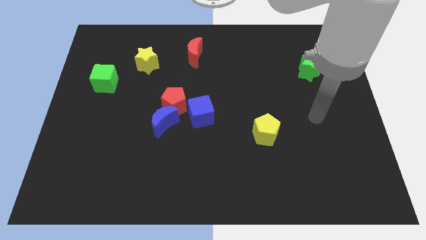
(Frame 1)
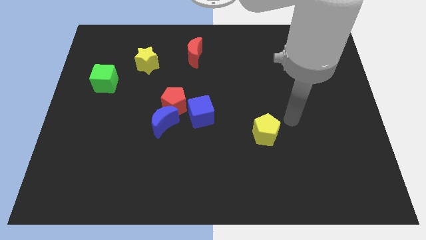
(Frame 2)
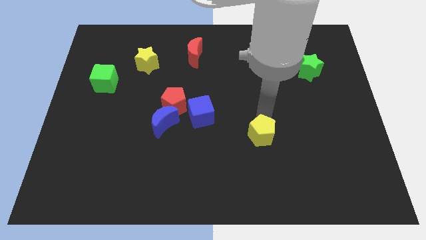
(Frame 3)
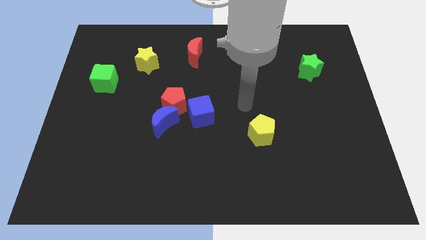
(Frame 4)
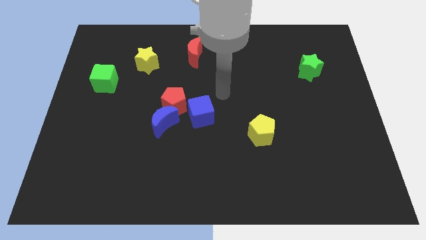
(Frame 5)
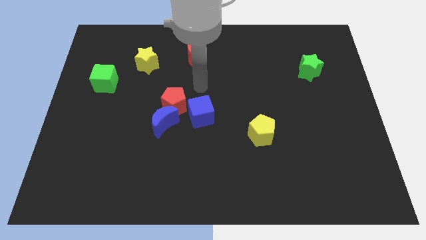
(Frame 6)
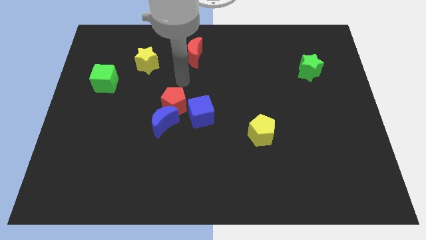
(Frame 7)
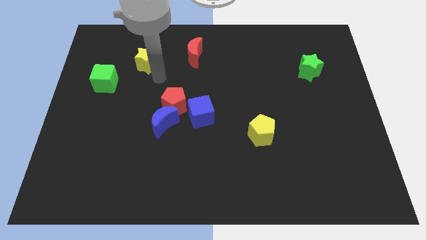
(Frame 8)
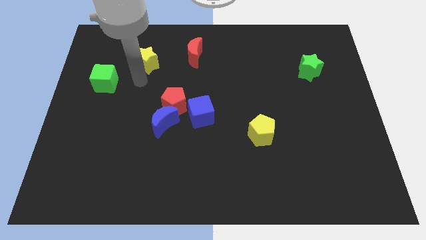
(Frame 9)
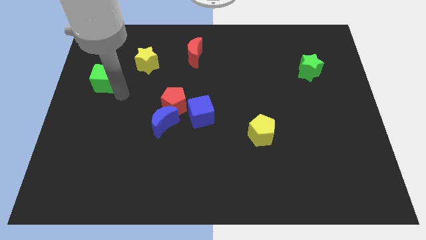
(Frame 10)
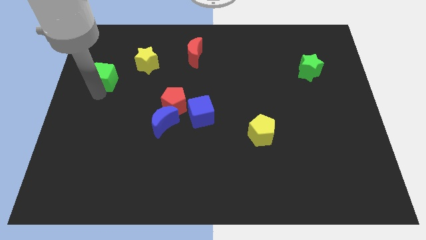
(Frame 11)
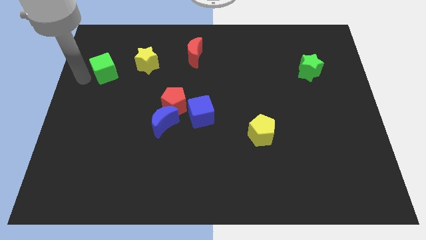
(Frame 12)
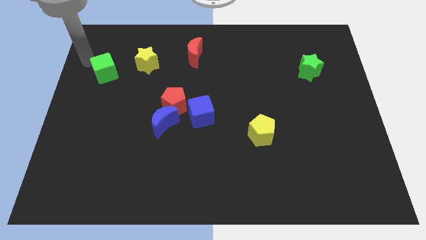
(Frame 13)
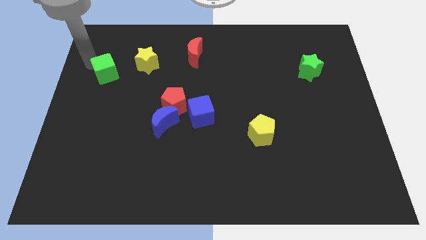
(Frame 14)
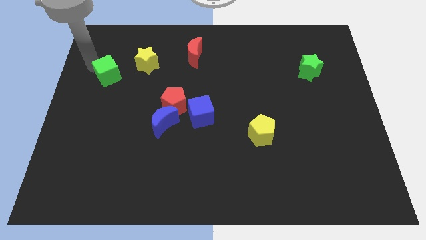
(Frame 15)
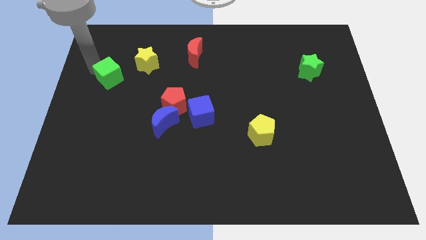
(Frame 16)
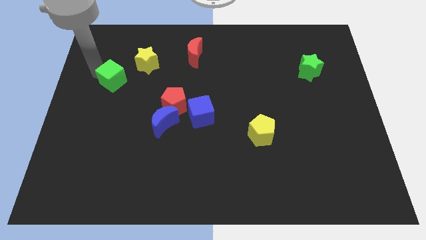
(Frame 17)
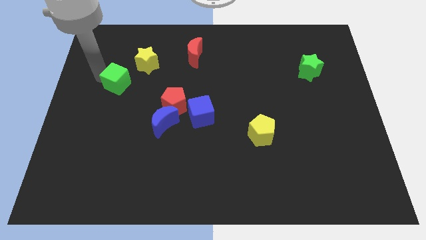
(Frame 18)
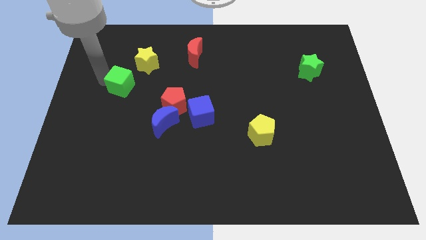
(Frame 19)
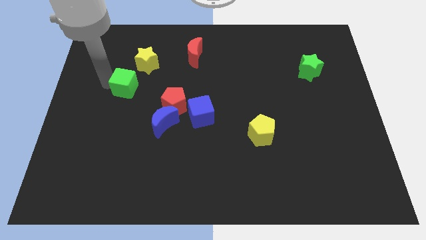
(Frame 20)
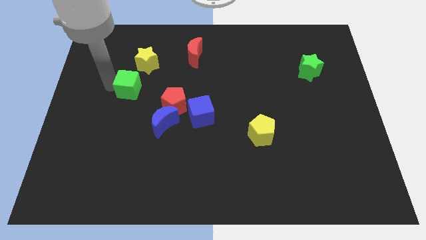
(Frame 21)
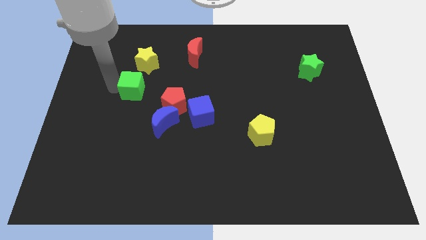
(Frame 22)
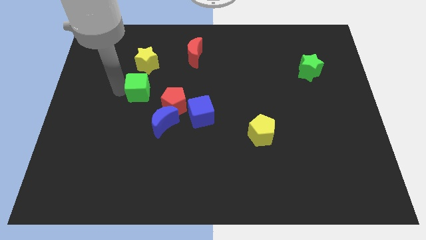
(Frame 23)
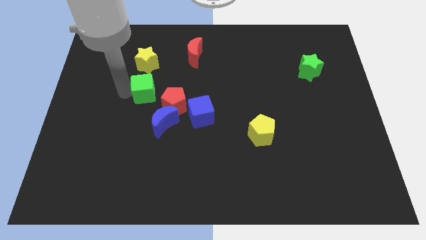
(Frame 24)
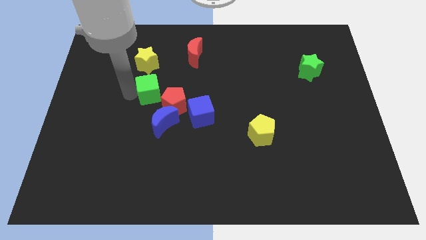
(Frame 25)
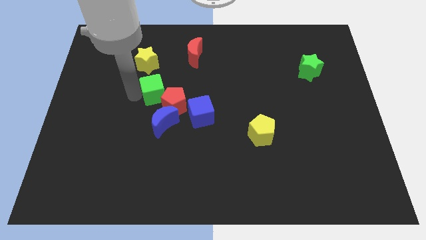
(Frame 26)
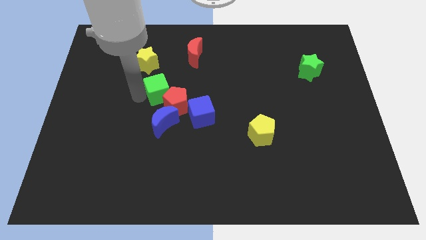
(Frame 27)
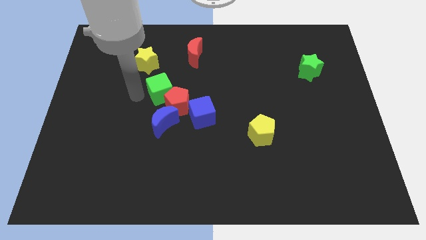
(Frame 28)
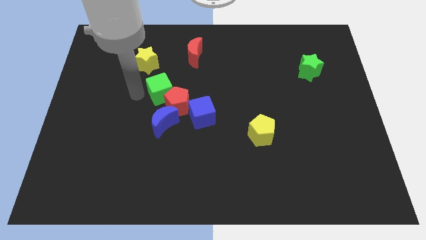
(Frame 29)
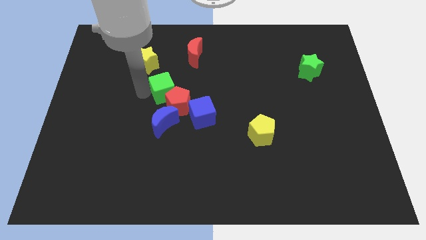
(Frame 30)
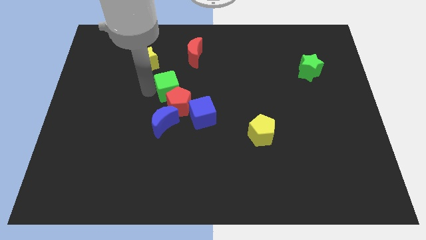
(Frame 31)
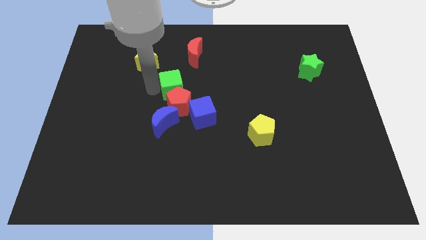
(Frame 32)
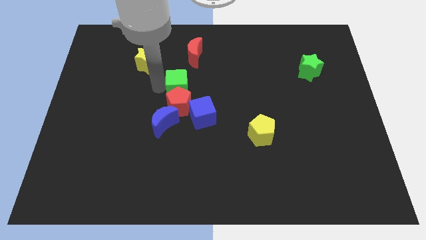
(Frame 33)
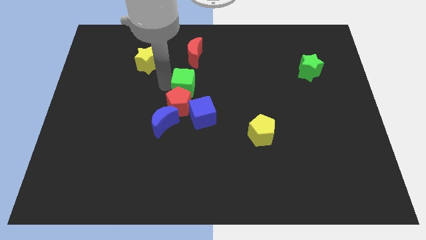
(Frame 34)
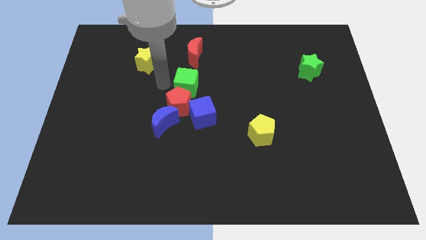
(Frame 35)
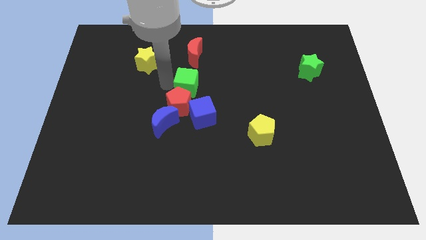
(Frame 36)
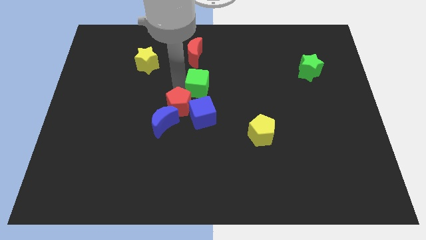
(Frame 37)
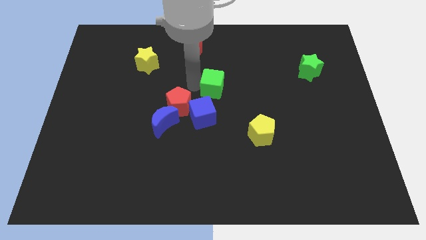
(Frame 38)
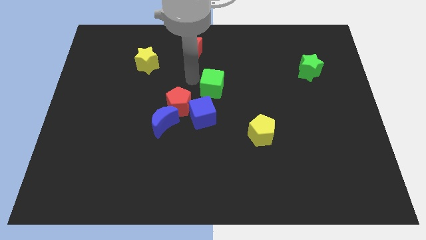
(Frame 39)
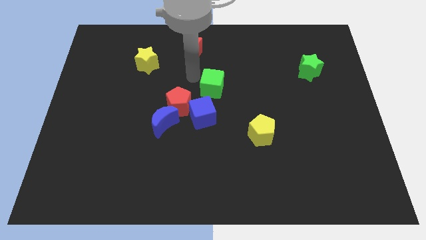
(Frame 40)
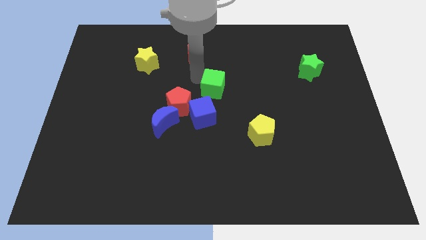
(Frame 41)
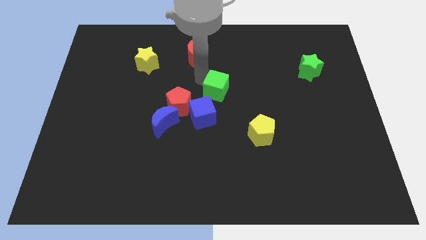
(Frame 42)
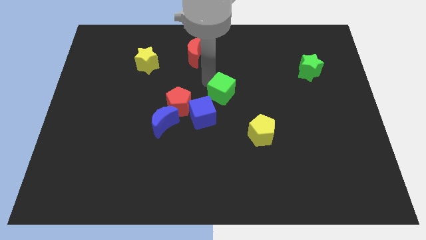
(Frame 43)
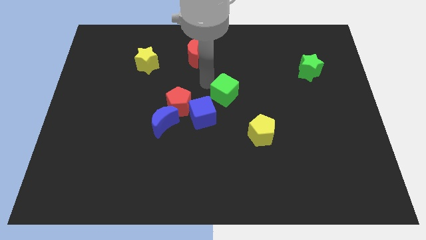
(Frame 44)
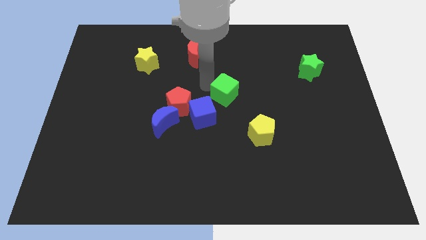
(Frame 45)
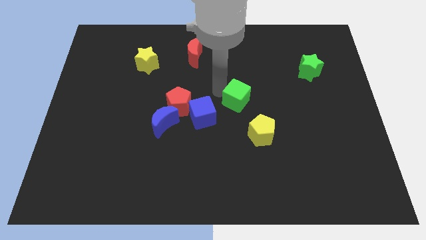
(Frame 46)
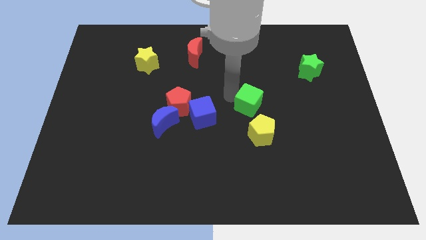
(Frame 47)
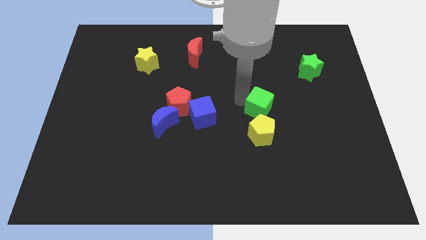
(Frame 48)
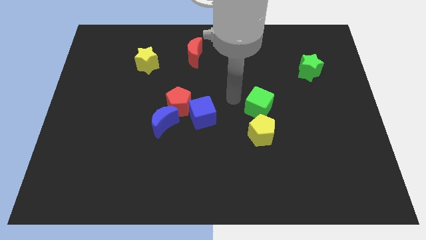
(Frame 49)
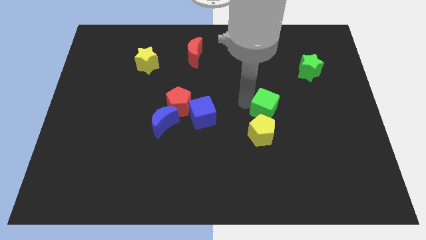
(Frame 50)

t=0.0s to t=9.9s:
put the green cube to the top right of the yellow pentagon

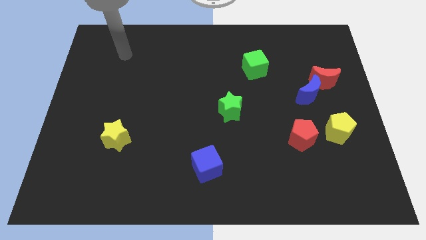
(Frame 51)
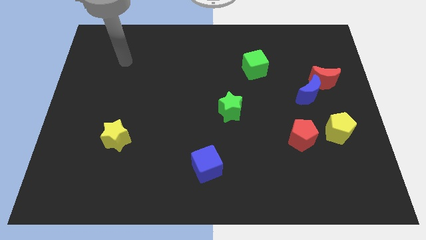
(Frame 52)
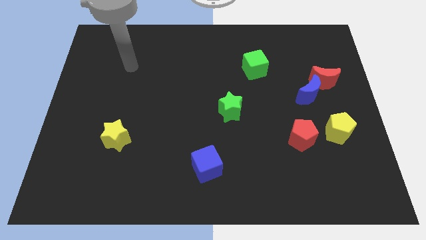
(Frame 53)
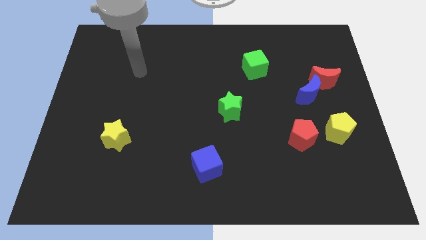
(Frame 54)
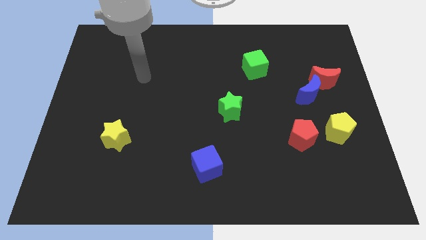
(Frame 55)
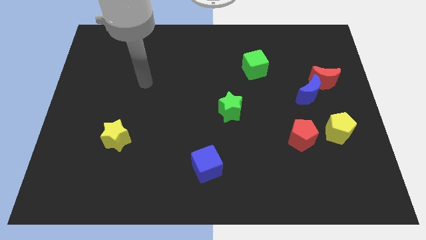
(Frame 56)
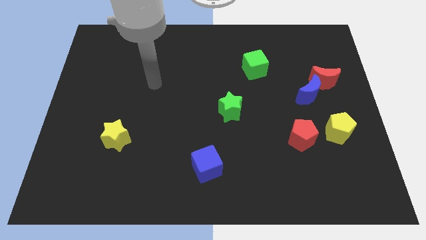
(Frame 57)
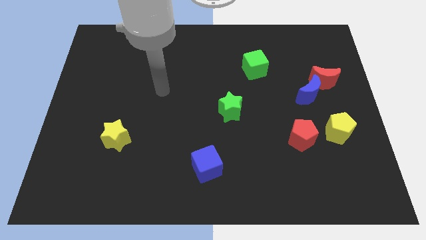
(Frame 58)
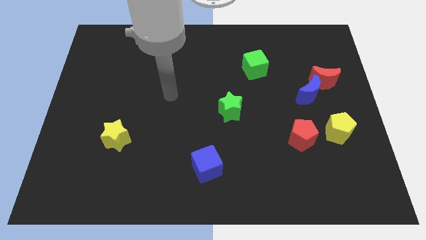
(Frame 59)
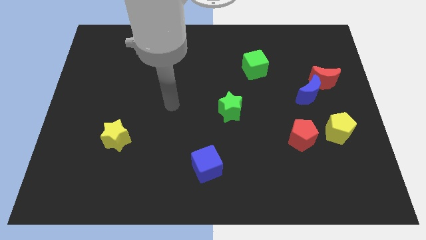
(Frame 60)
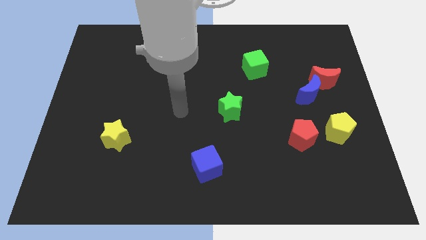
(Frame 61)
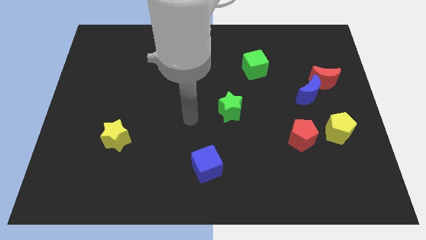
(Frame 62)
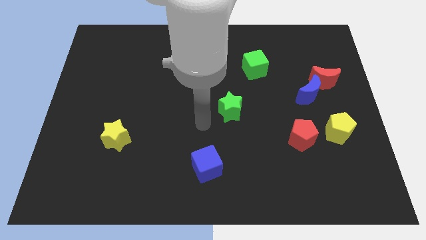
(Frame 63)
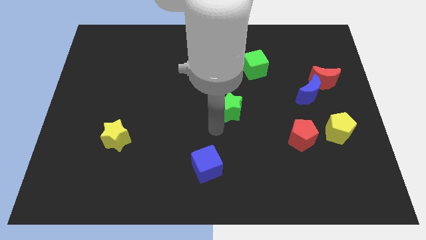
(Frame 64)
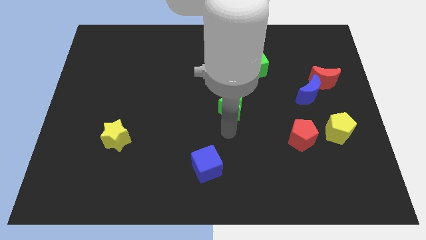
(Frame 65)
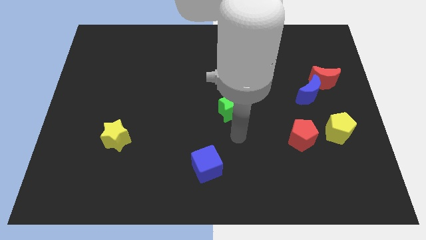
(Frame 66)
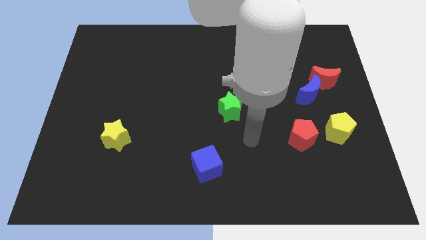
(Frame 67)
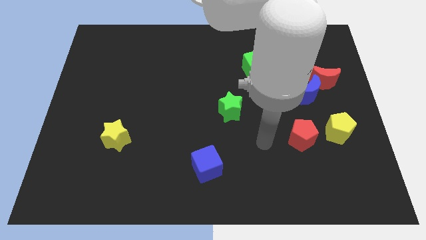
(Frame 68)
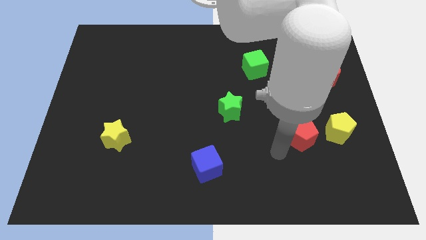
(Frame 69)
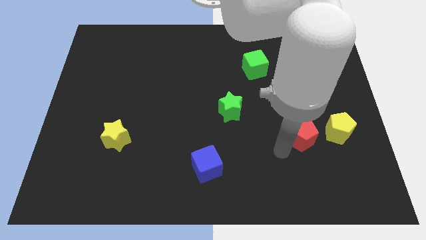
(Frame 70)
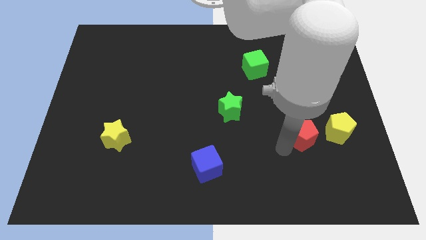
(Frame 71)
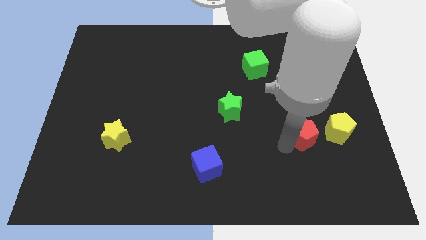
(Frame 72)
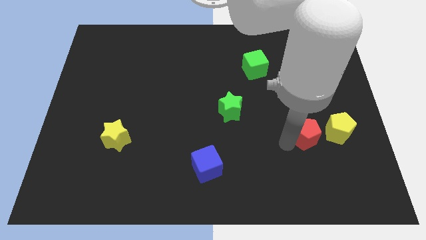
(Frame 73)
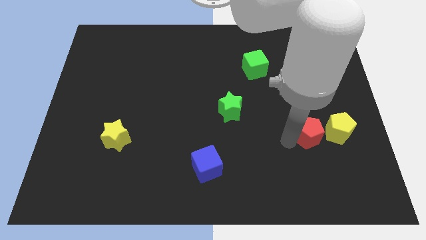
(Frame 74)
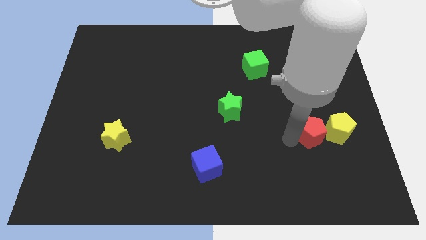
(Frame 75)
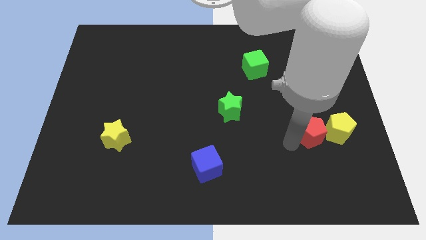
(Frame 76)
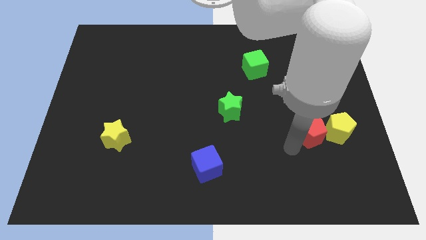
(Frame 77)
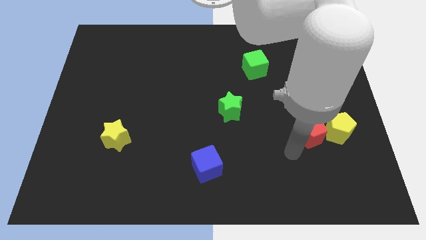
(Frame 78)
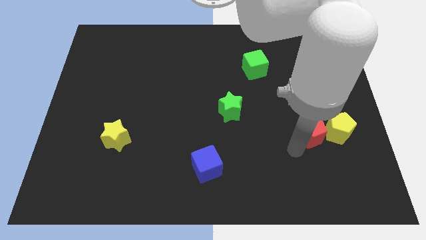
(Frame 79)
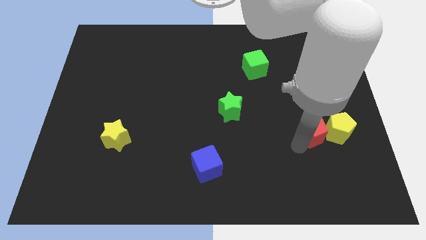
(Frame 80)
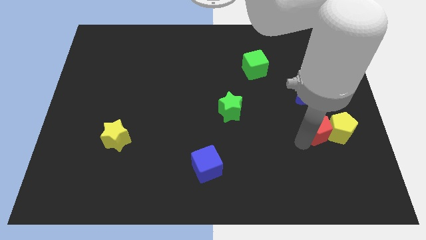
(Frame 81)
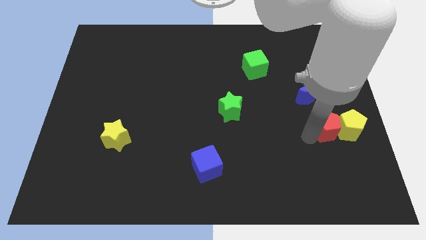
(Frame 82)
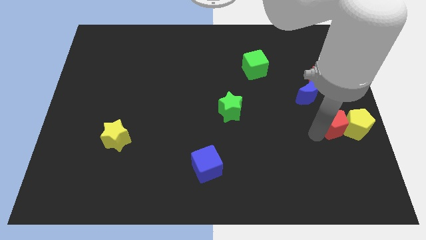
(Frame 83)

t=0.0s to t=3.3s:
slide the red pentagon to the bottom right side of the blue moon
